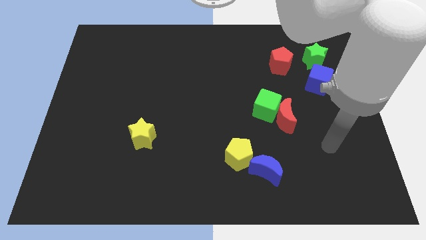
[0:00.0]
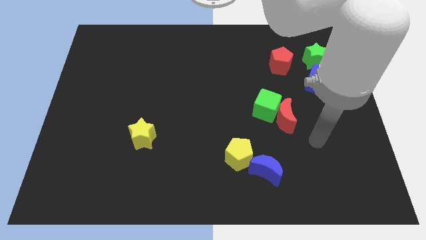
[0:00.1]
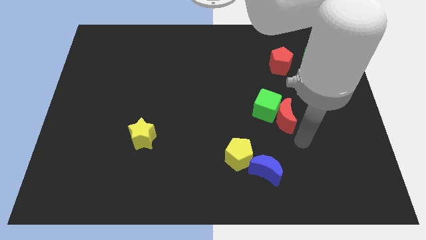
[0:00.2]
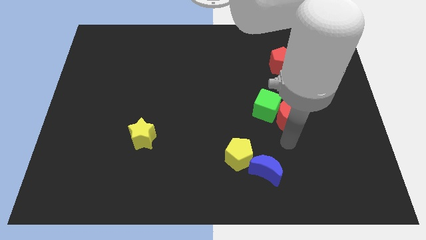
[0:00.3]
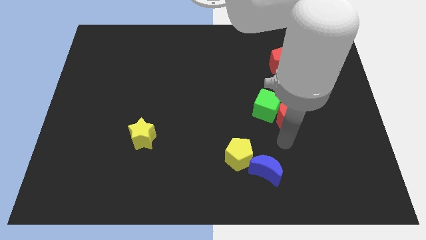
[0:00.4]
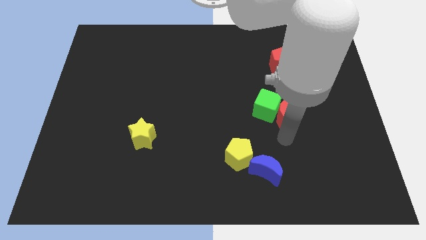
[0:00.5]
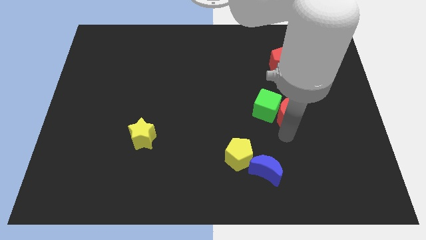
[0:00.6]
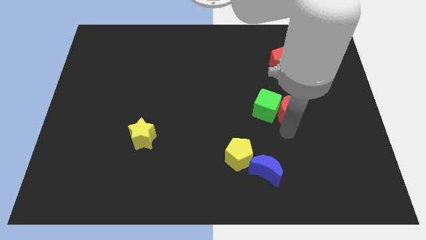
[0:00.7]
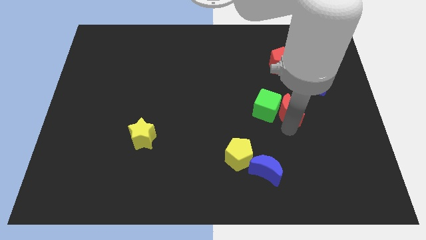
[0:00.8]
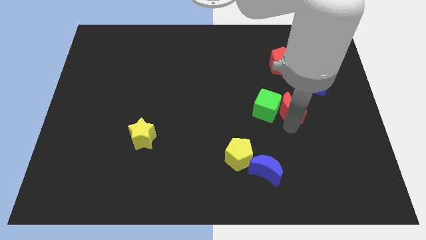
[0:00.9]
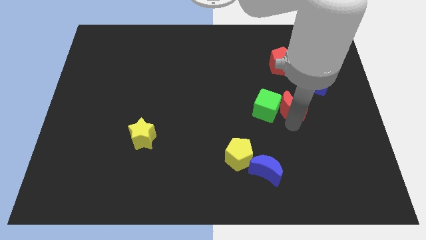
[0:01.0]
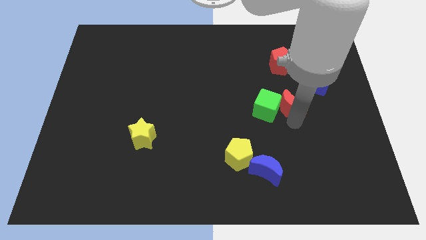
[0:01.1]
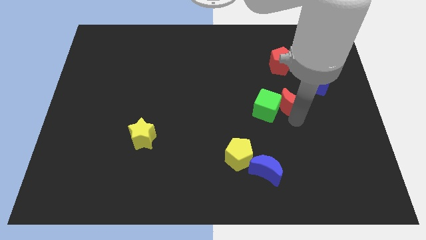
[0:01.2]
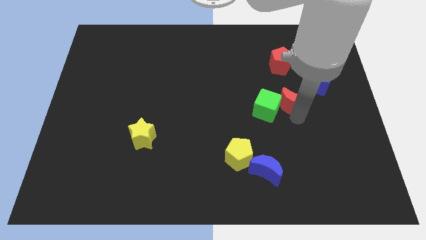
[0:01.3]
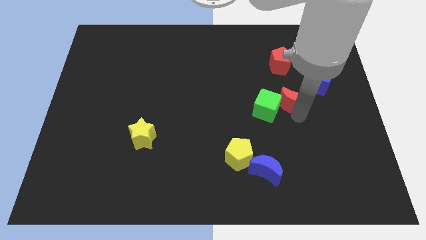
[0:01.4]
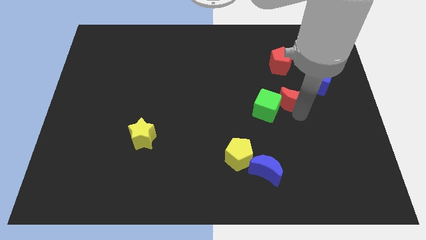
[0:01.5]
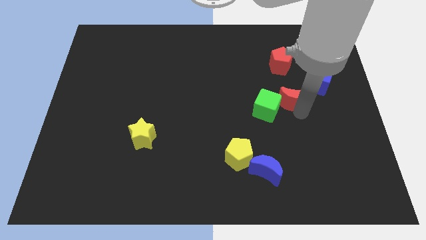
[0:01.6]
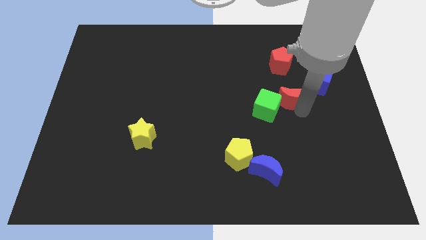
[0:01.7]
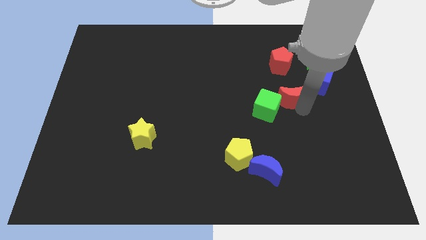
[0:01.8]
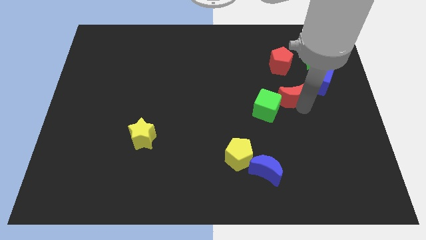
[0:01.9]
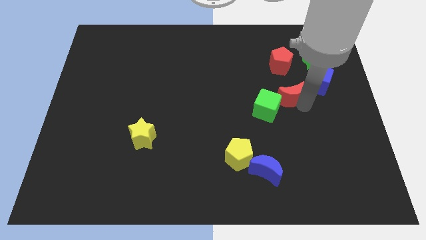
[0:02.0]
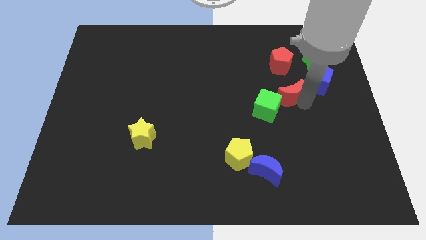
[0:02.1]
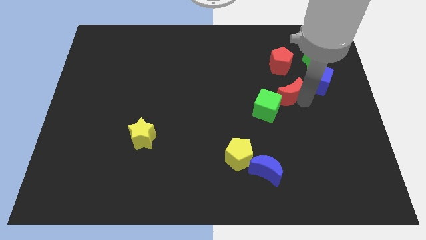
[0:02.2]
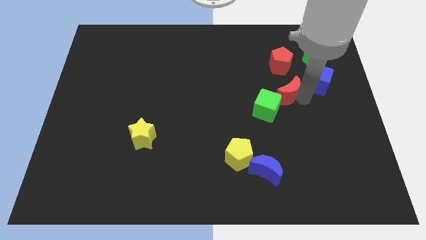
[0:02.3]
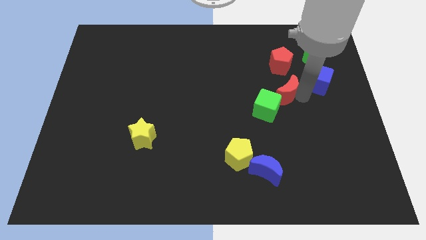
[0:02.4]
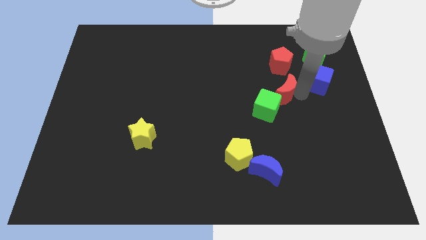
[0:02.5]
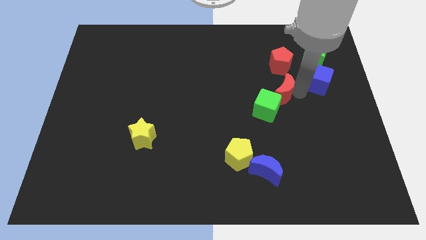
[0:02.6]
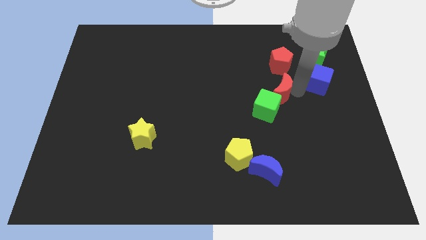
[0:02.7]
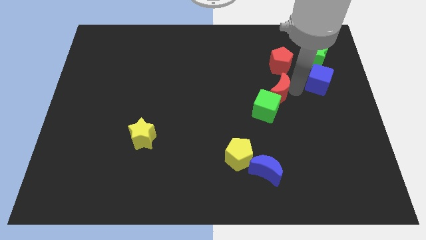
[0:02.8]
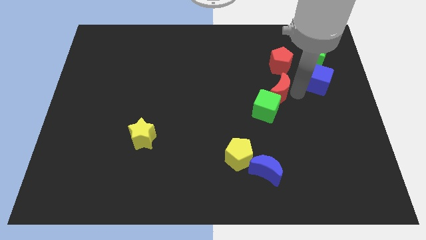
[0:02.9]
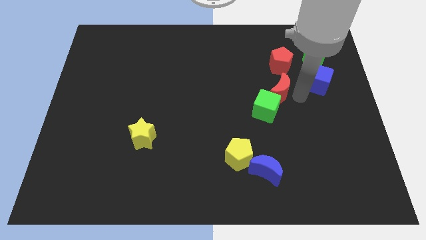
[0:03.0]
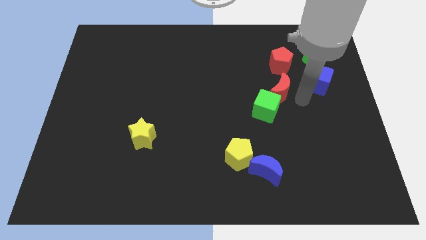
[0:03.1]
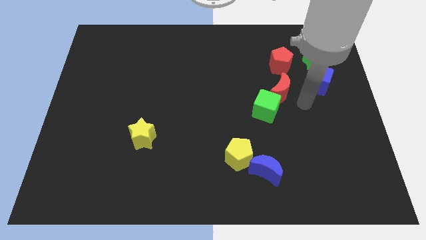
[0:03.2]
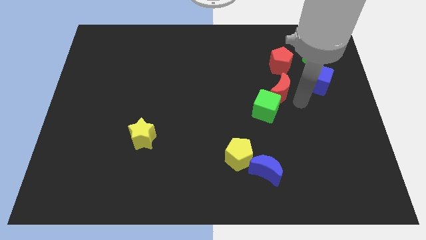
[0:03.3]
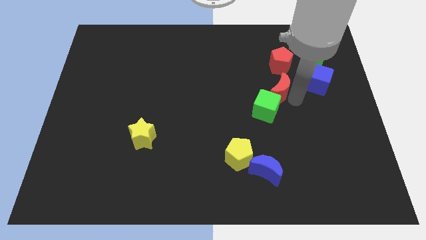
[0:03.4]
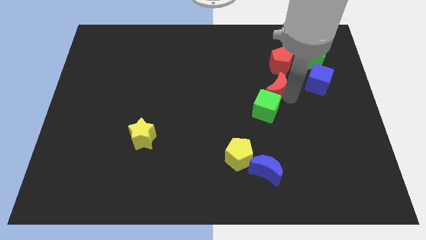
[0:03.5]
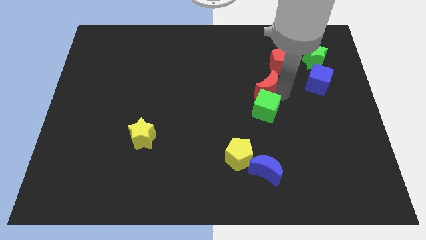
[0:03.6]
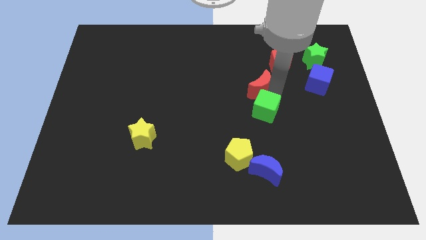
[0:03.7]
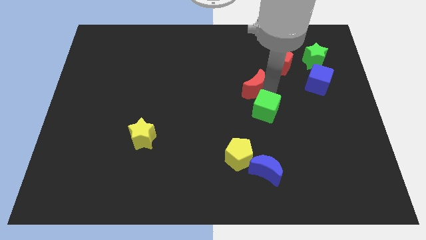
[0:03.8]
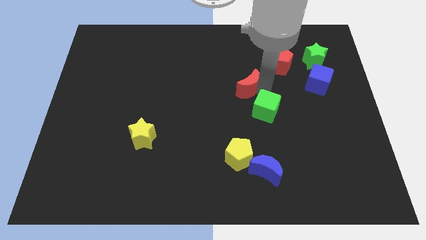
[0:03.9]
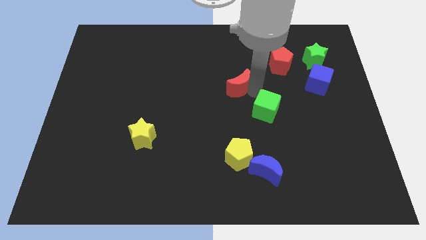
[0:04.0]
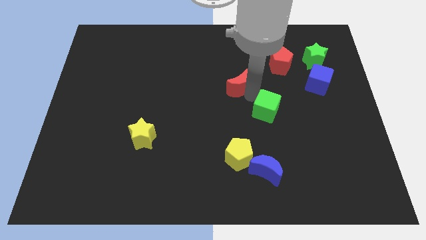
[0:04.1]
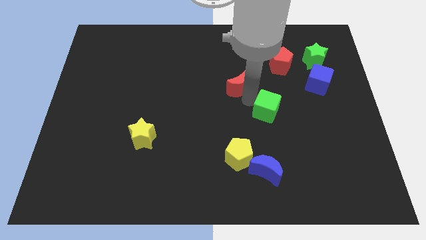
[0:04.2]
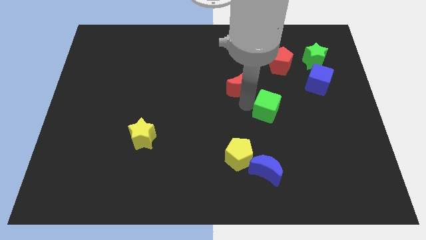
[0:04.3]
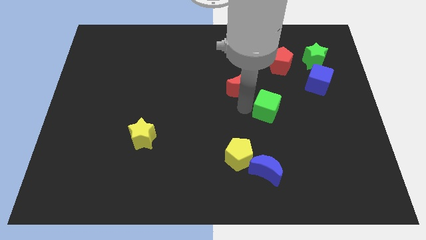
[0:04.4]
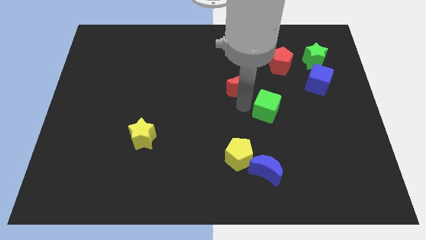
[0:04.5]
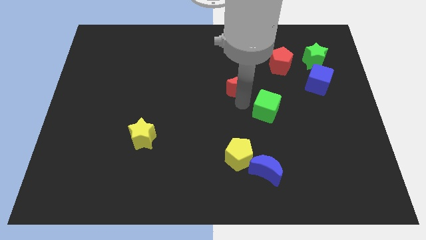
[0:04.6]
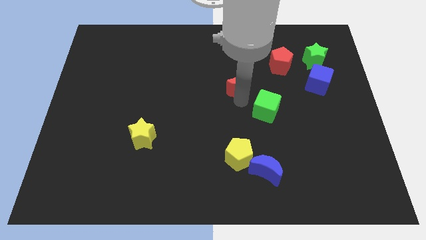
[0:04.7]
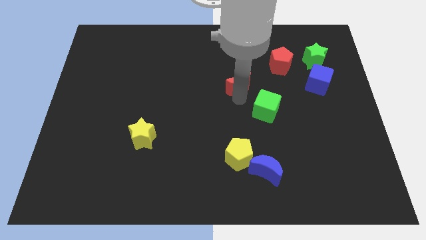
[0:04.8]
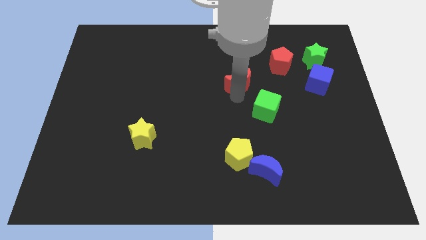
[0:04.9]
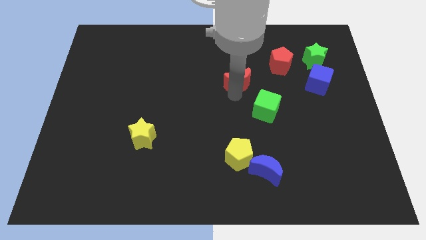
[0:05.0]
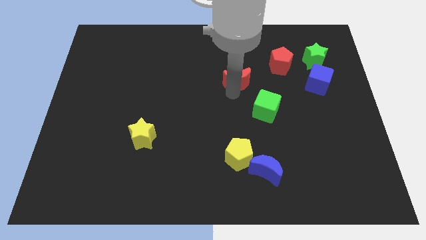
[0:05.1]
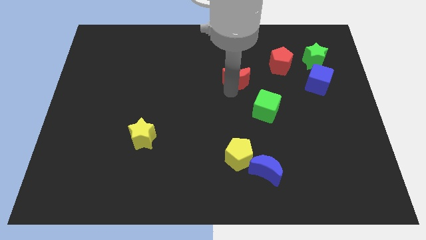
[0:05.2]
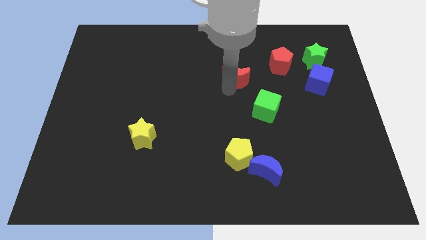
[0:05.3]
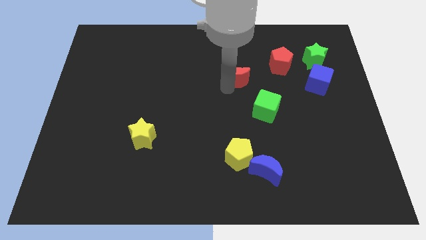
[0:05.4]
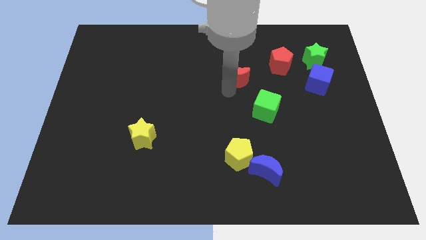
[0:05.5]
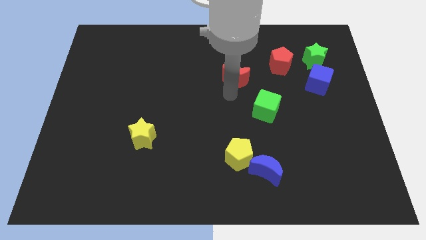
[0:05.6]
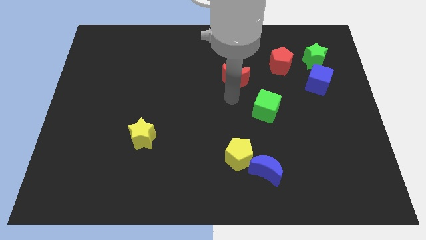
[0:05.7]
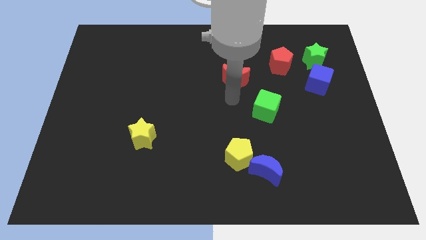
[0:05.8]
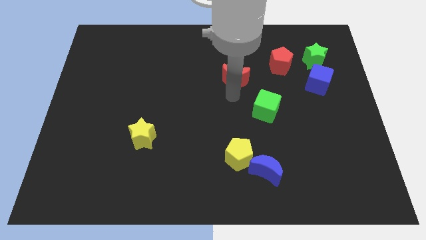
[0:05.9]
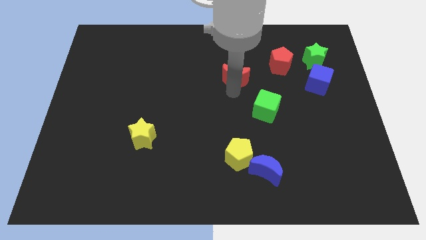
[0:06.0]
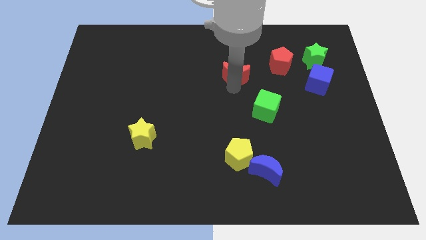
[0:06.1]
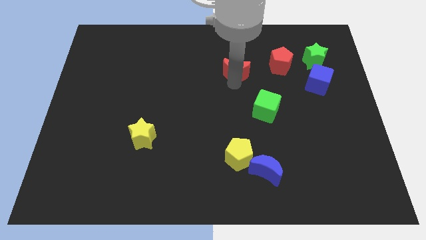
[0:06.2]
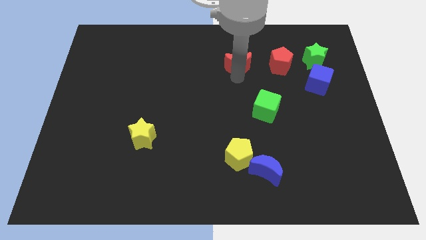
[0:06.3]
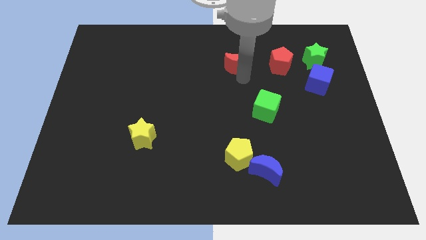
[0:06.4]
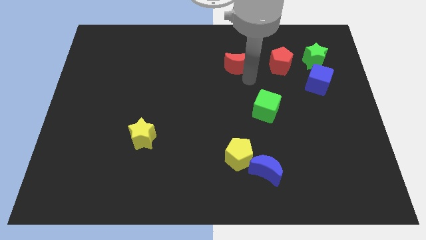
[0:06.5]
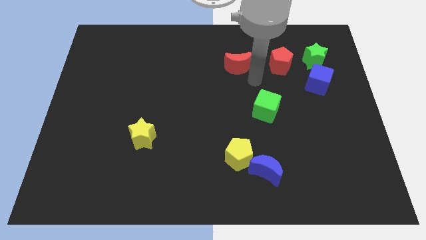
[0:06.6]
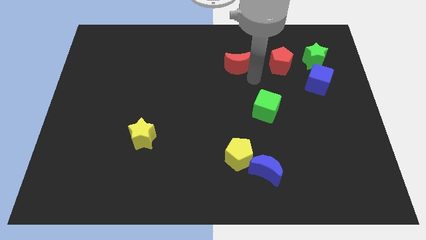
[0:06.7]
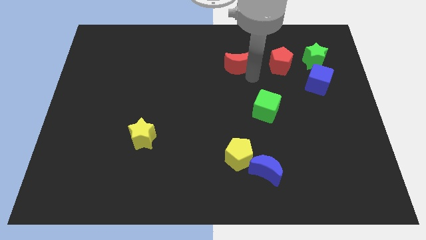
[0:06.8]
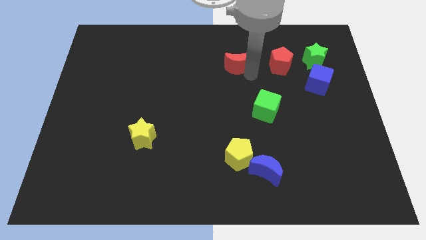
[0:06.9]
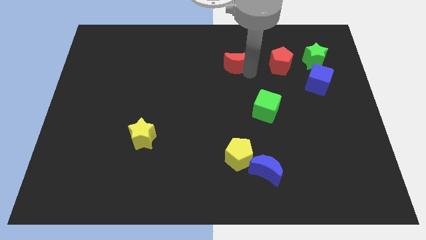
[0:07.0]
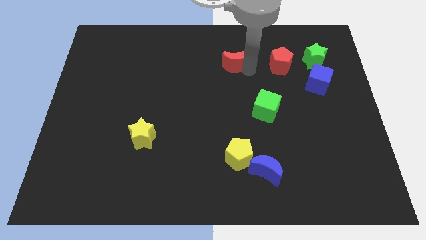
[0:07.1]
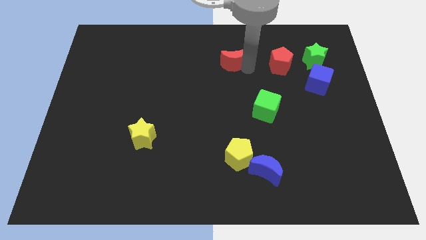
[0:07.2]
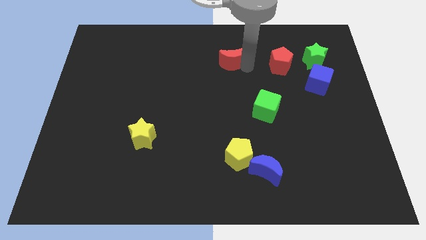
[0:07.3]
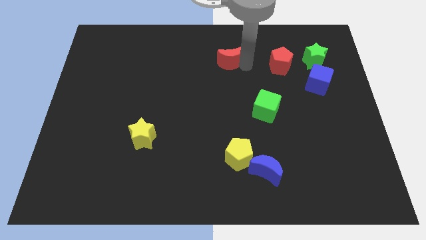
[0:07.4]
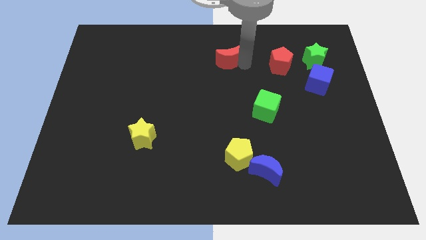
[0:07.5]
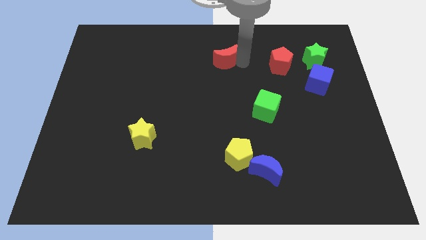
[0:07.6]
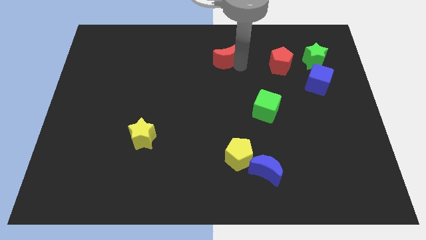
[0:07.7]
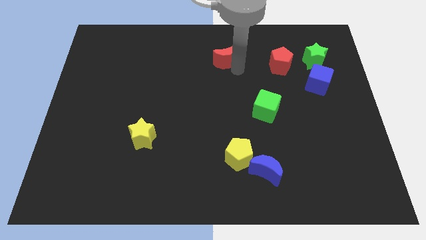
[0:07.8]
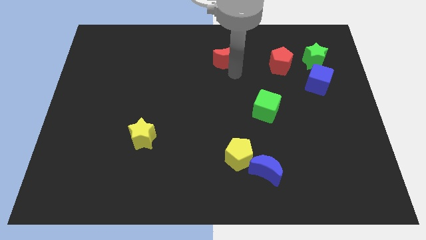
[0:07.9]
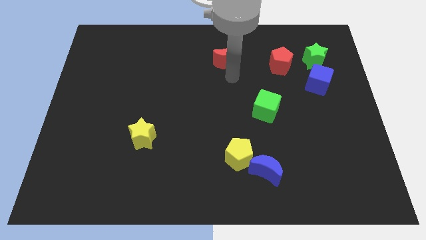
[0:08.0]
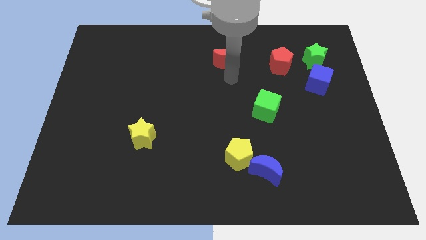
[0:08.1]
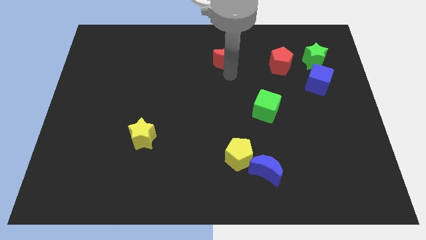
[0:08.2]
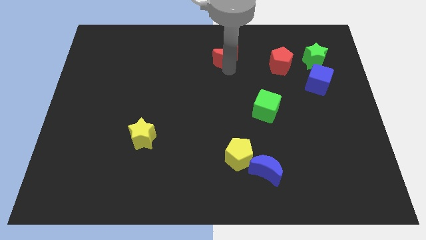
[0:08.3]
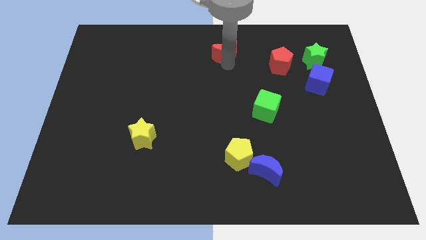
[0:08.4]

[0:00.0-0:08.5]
move the red moon to the towards your base
